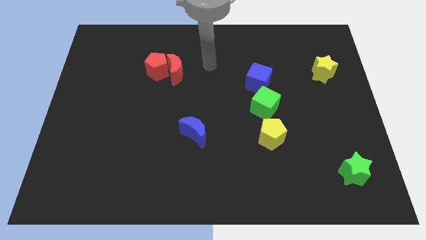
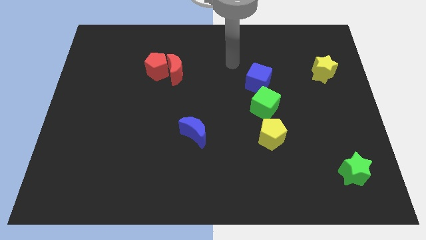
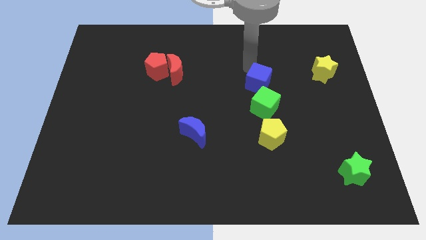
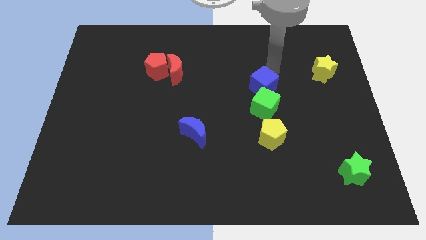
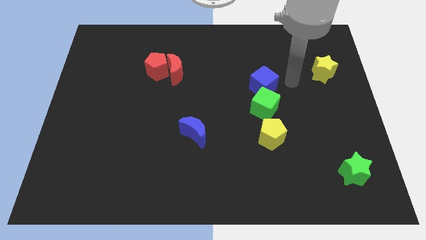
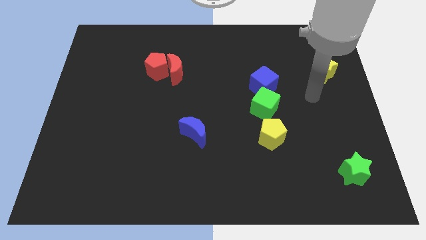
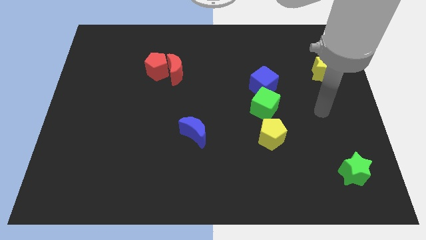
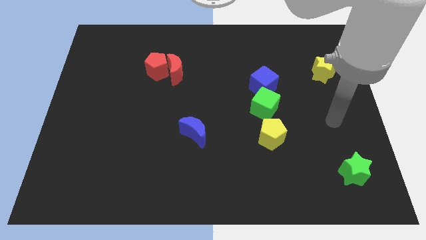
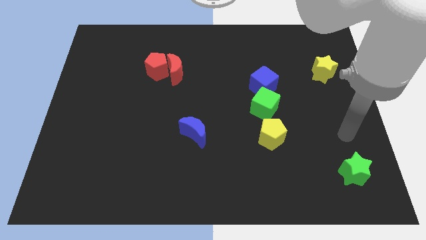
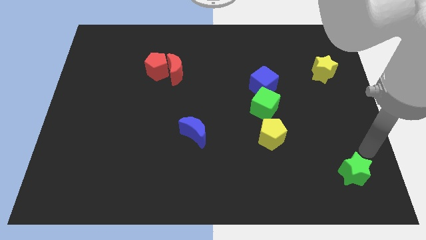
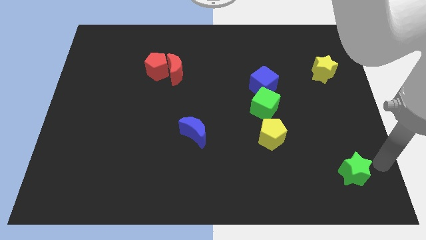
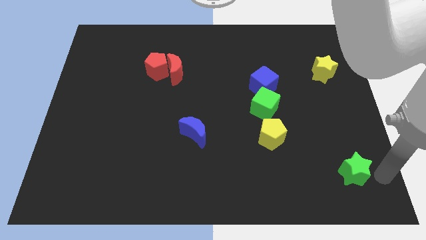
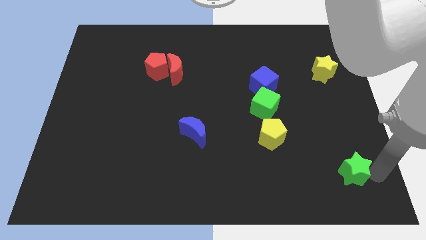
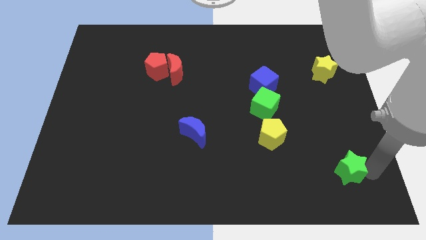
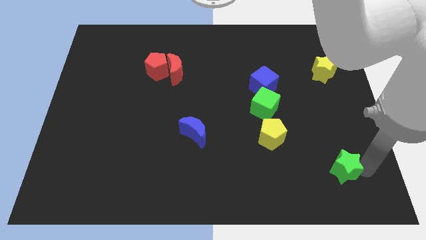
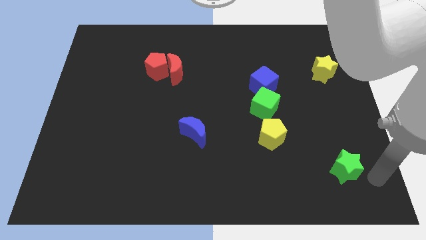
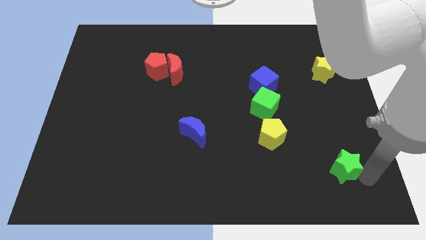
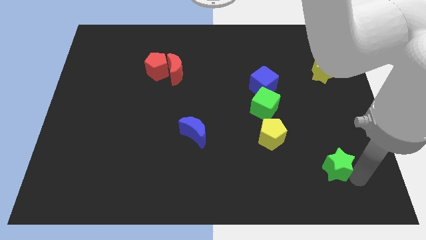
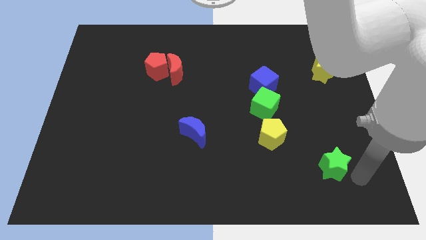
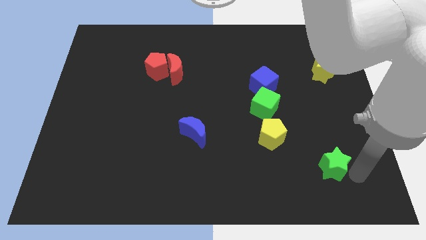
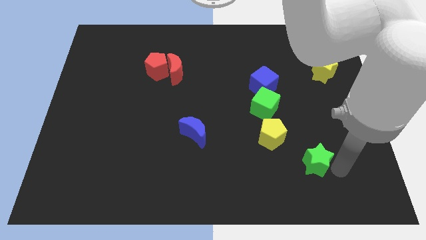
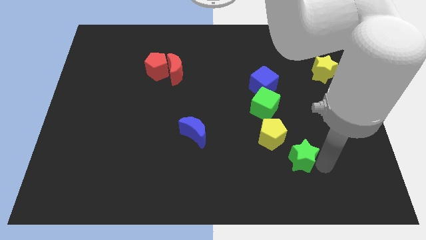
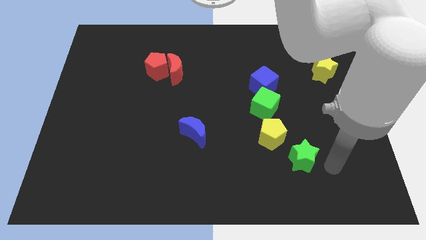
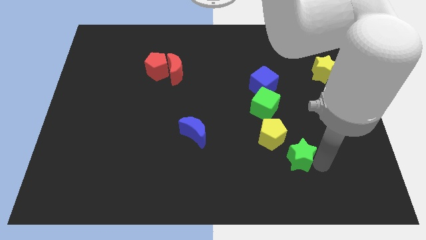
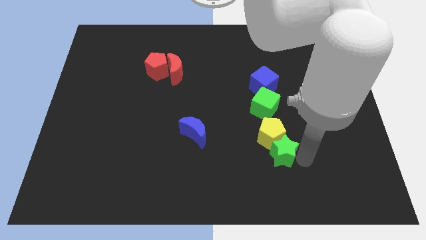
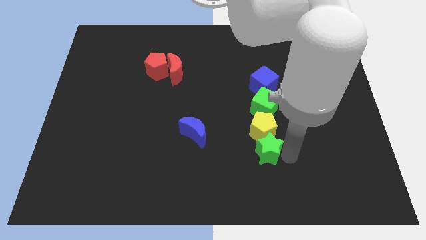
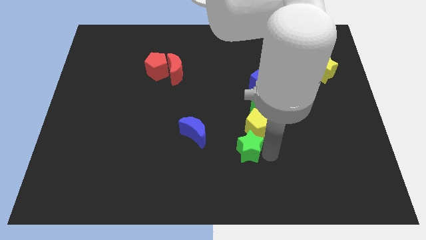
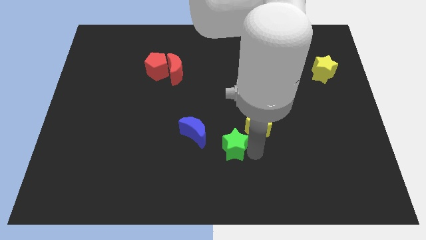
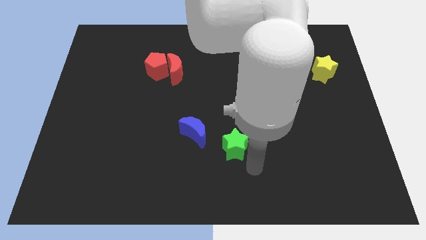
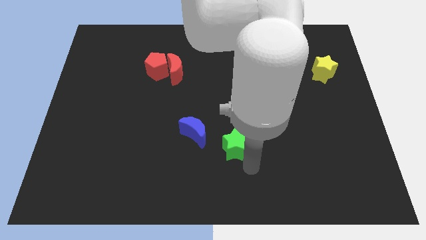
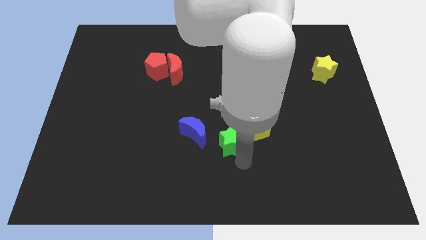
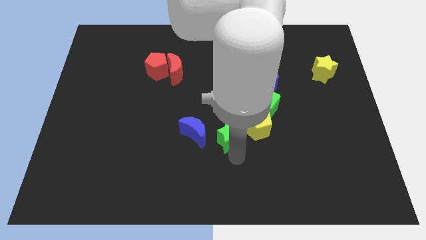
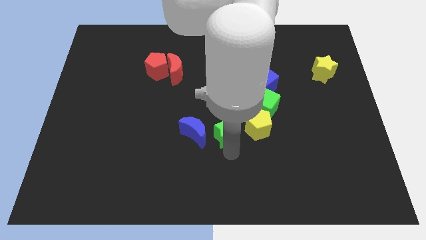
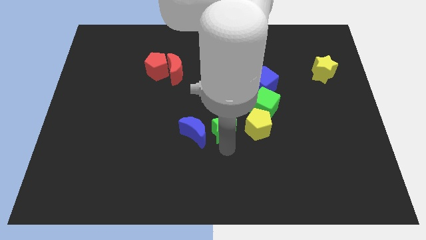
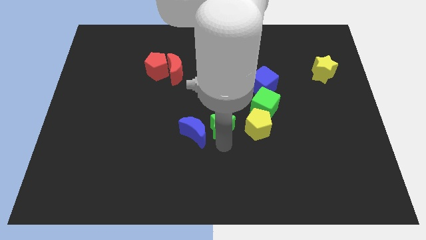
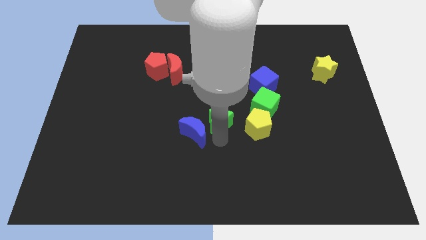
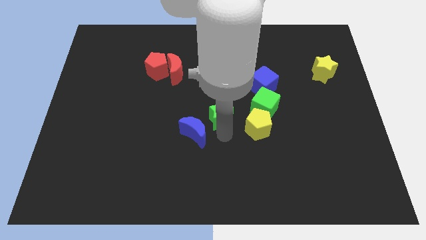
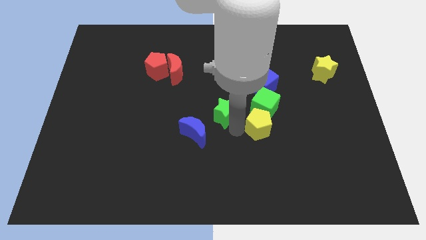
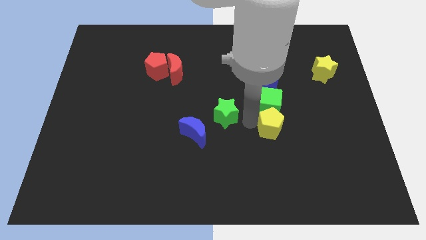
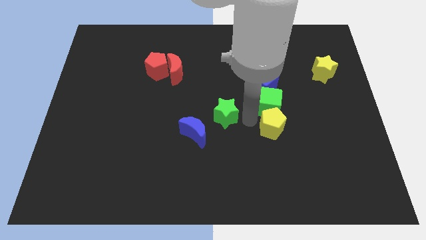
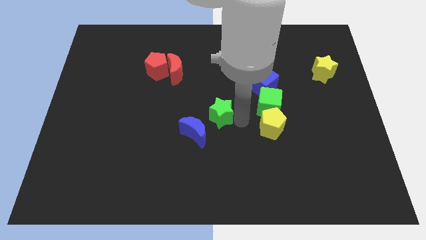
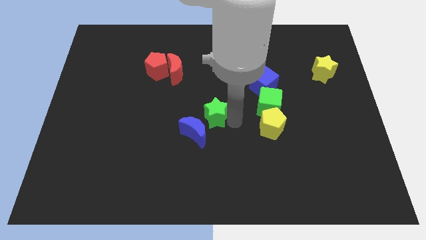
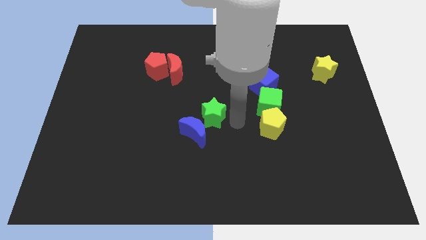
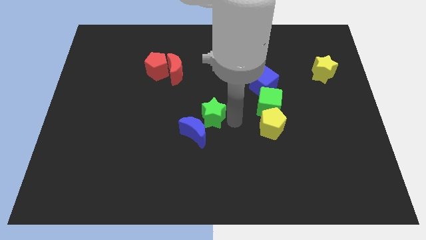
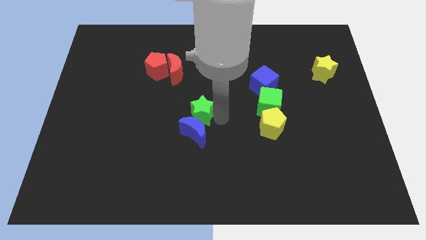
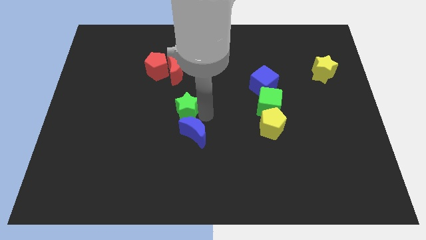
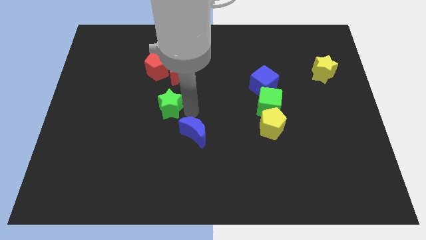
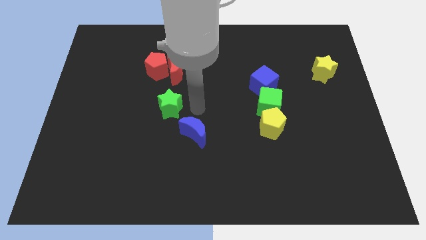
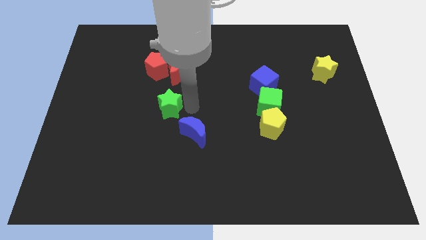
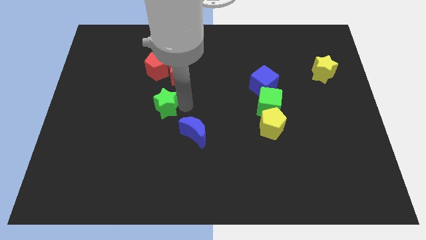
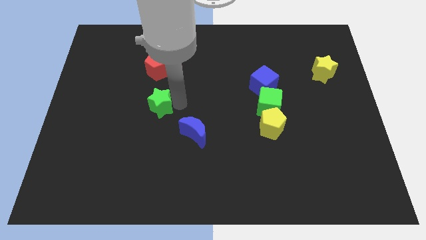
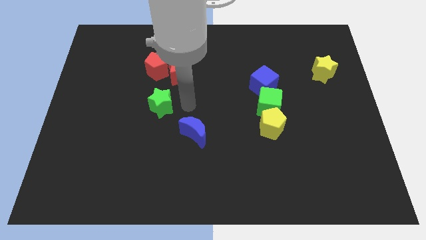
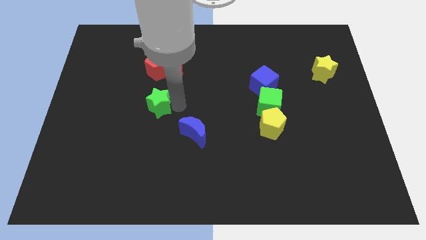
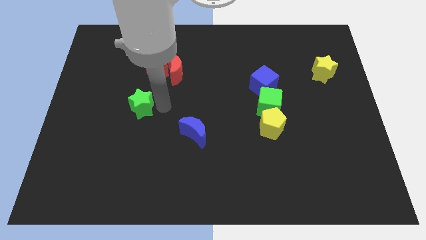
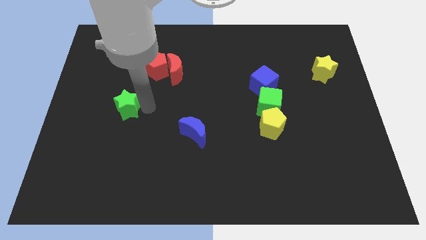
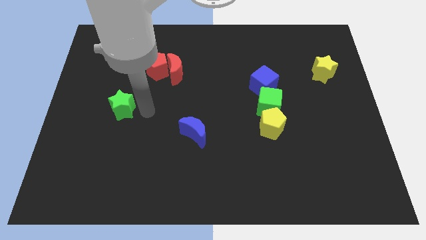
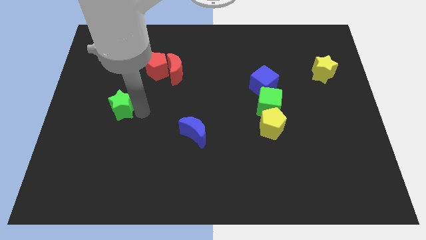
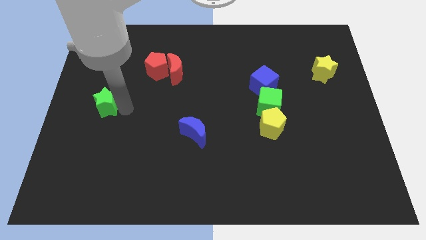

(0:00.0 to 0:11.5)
push the green star to the left side
